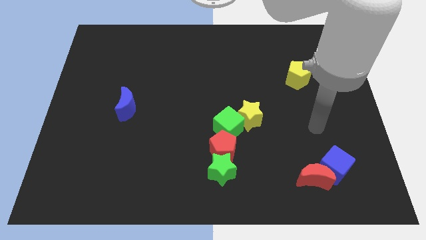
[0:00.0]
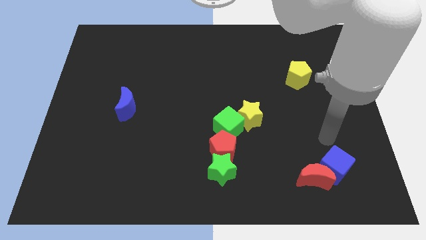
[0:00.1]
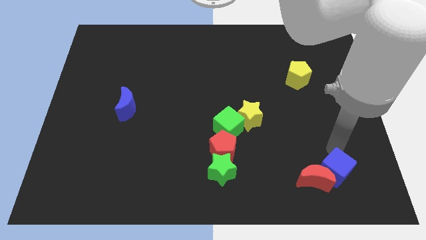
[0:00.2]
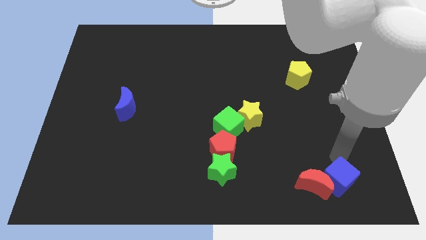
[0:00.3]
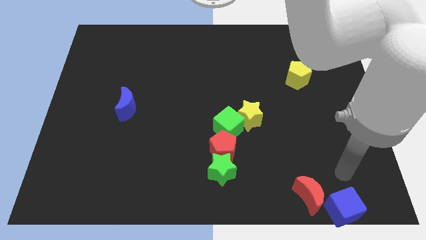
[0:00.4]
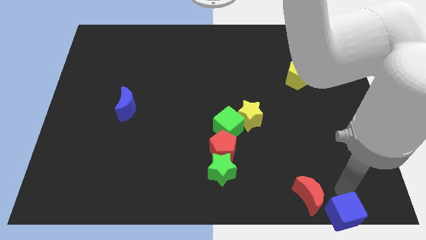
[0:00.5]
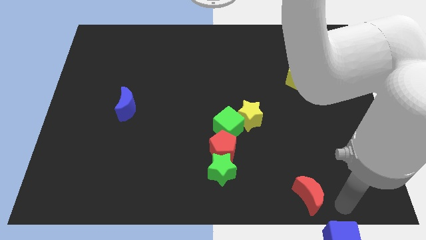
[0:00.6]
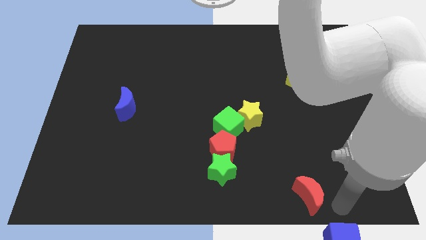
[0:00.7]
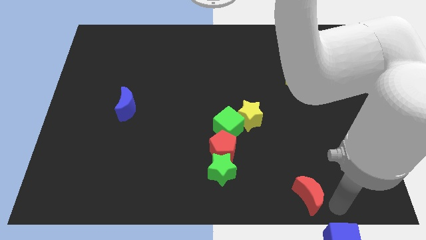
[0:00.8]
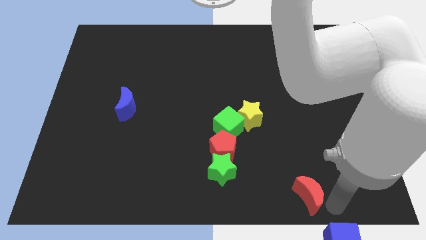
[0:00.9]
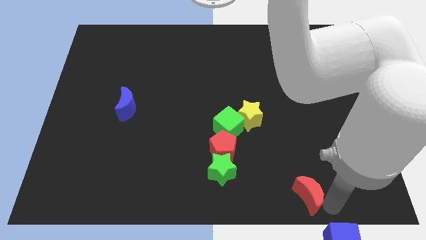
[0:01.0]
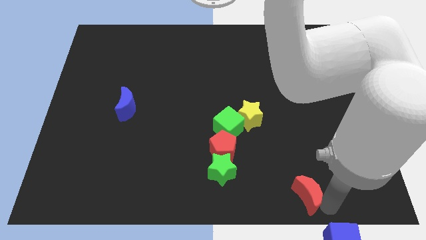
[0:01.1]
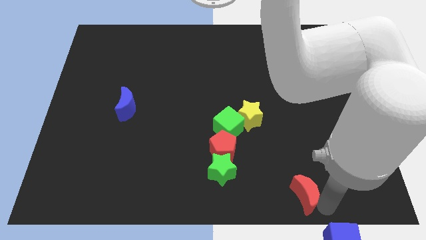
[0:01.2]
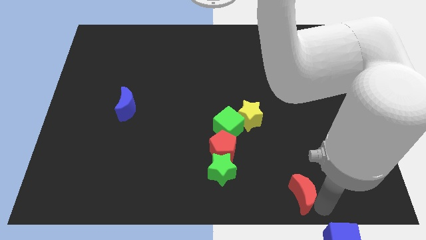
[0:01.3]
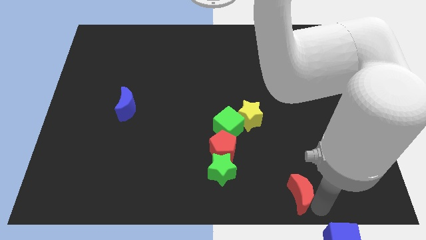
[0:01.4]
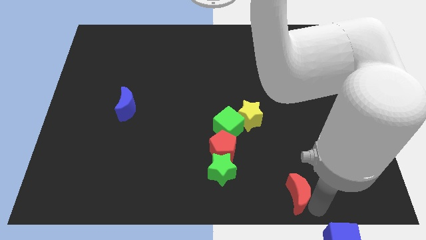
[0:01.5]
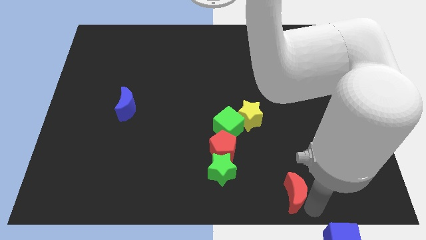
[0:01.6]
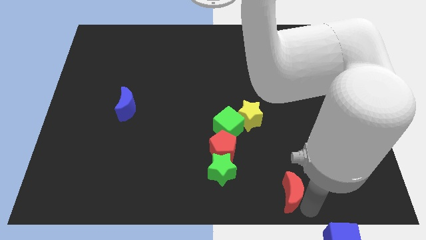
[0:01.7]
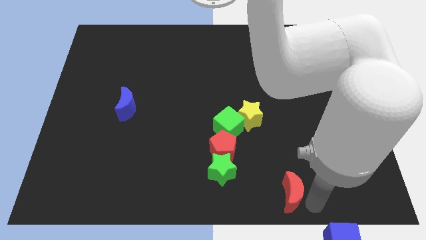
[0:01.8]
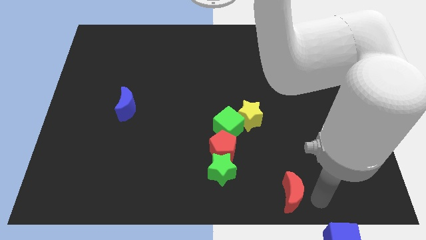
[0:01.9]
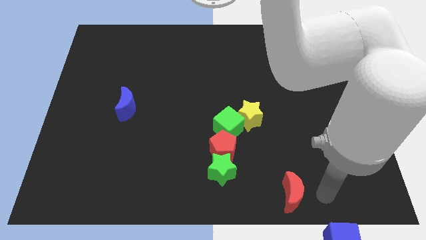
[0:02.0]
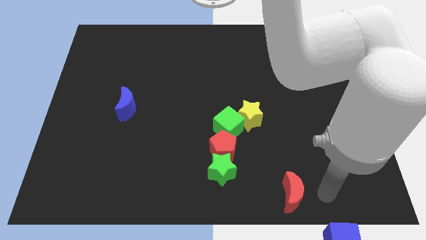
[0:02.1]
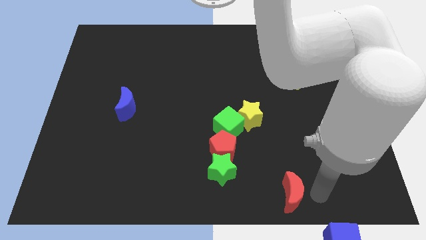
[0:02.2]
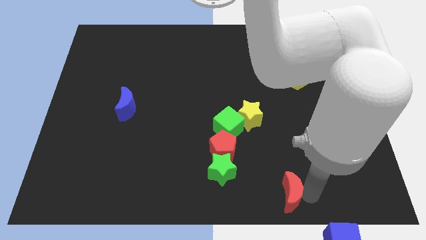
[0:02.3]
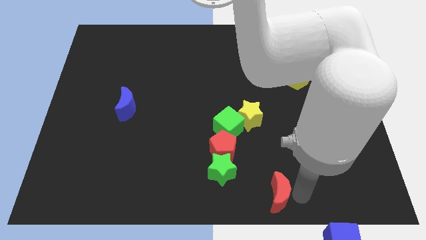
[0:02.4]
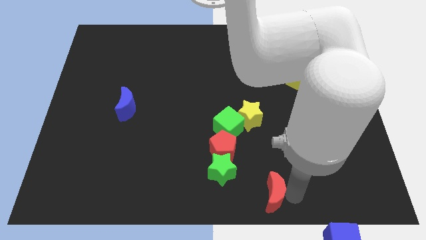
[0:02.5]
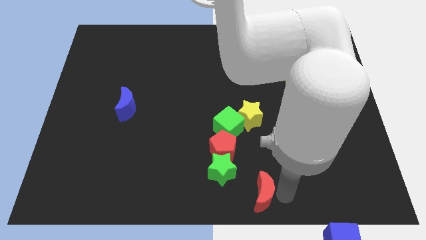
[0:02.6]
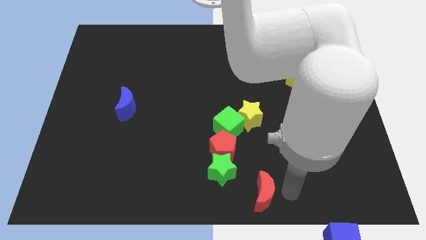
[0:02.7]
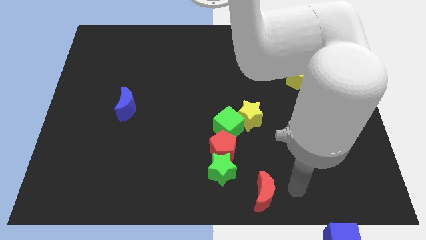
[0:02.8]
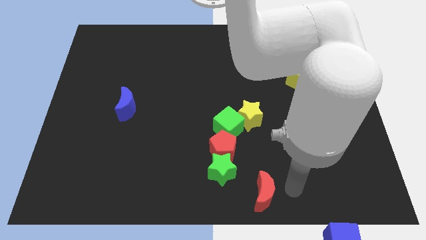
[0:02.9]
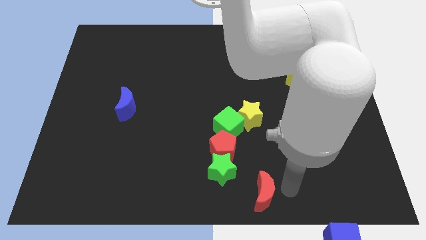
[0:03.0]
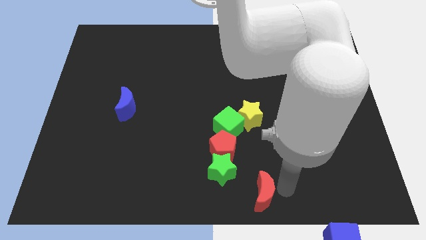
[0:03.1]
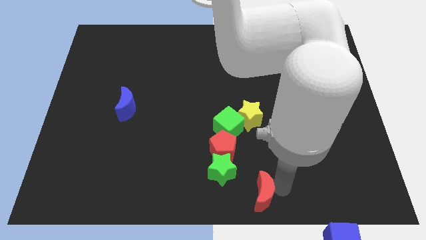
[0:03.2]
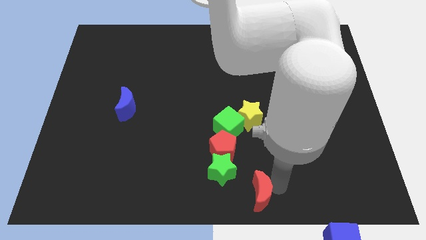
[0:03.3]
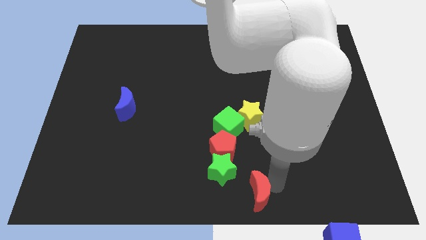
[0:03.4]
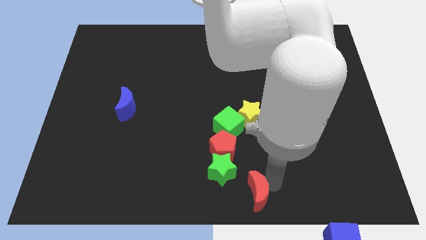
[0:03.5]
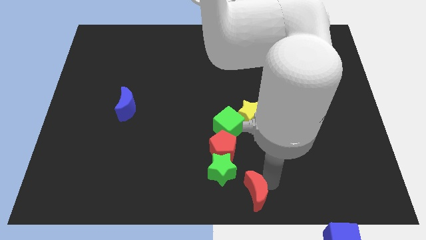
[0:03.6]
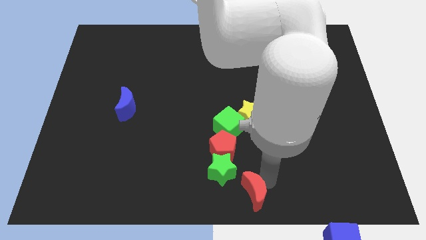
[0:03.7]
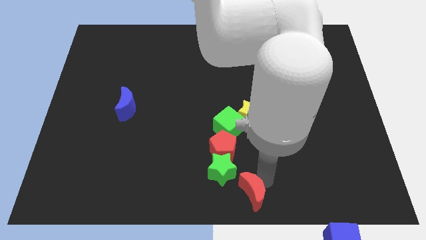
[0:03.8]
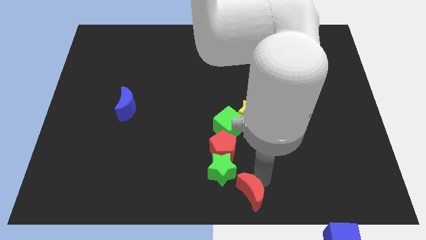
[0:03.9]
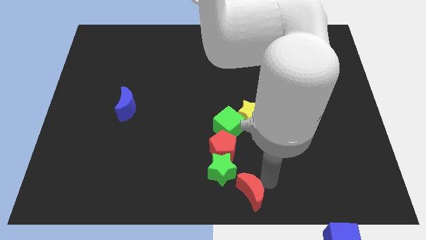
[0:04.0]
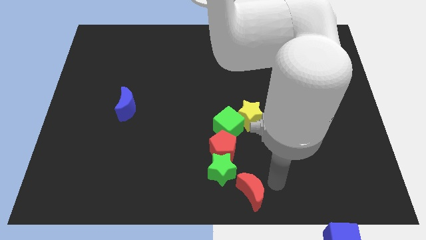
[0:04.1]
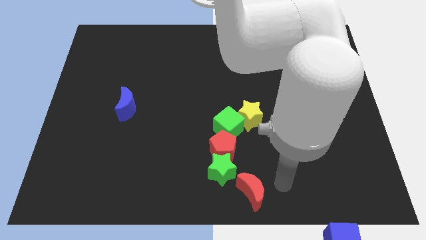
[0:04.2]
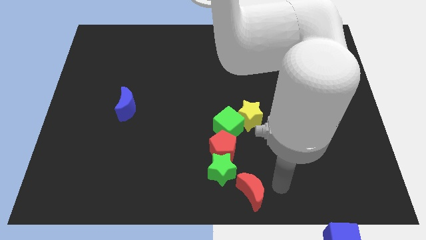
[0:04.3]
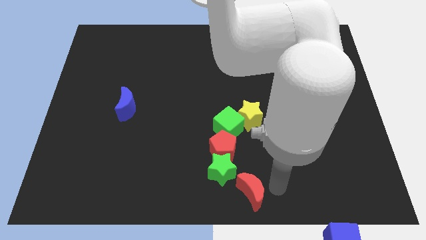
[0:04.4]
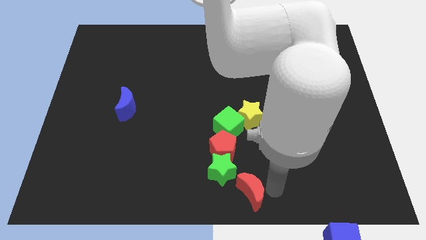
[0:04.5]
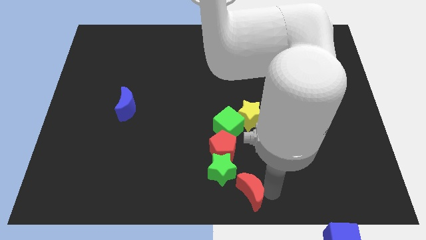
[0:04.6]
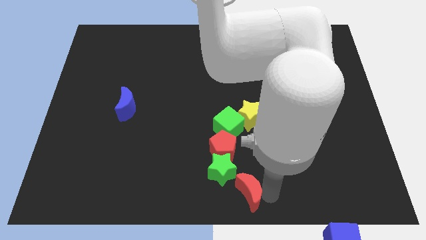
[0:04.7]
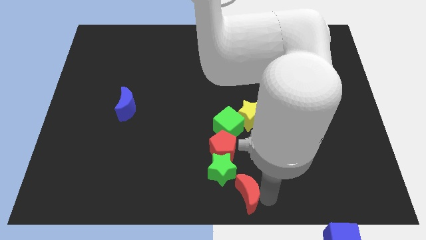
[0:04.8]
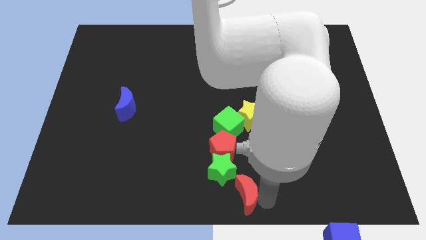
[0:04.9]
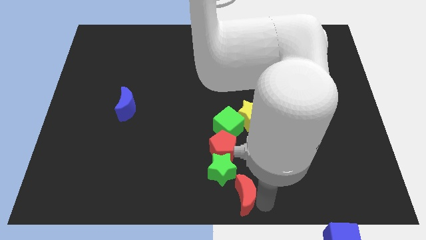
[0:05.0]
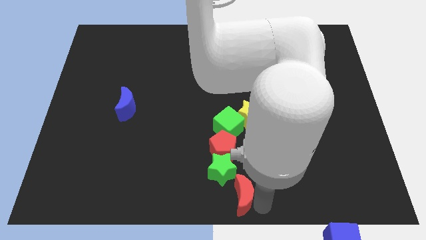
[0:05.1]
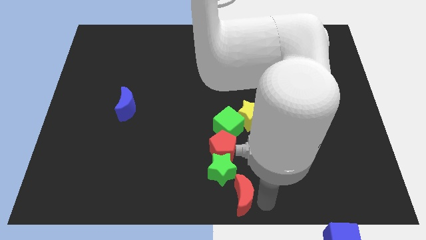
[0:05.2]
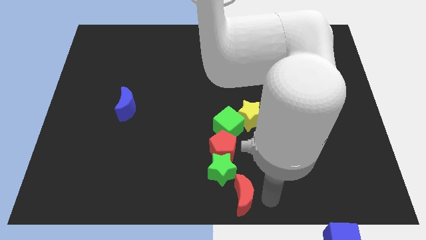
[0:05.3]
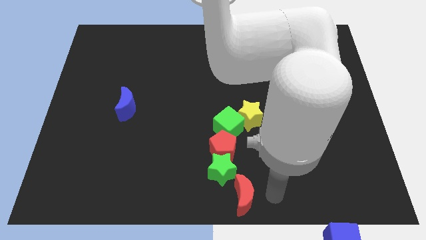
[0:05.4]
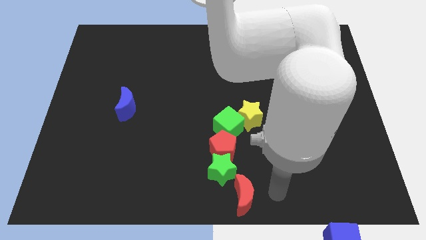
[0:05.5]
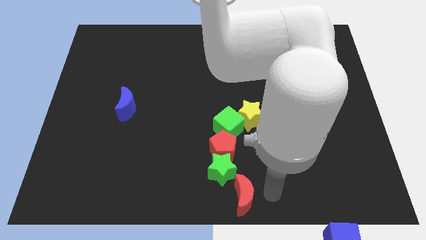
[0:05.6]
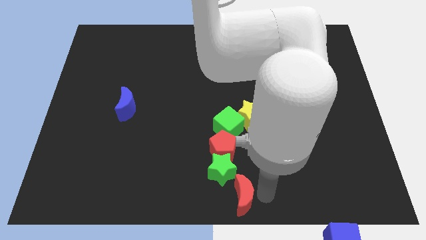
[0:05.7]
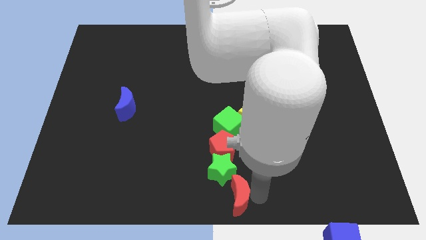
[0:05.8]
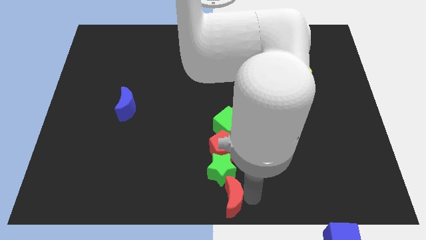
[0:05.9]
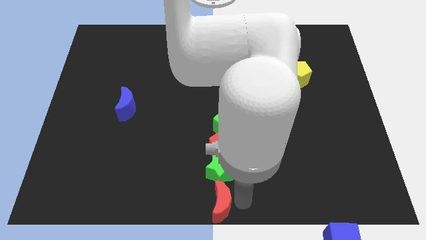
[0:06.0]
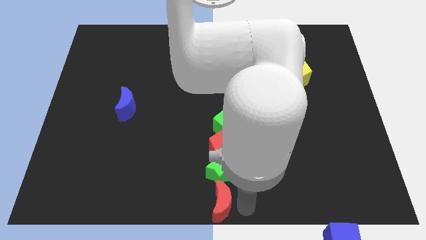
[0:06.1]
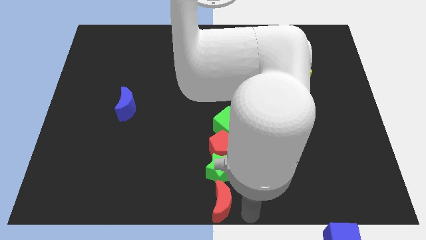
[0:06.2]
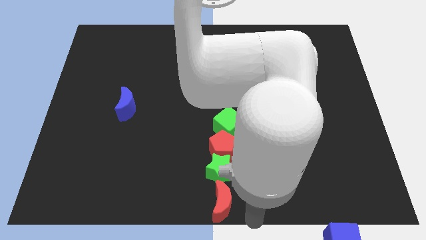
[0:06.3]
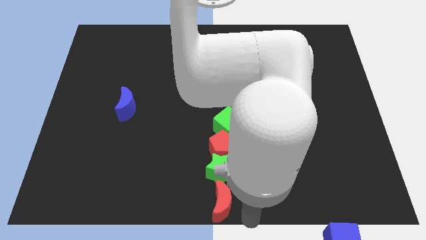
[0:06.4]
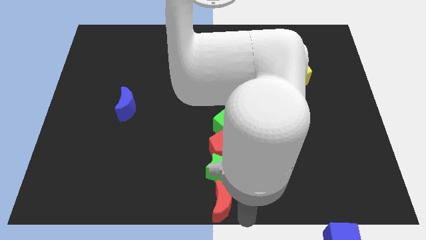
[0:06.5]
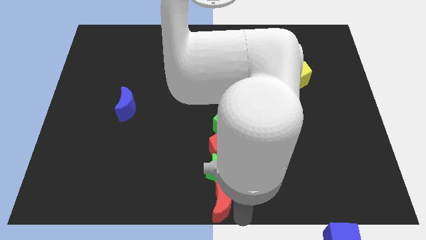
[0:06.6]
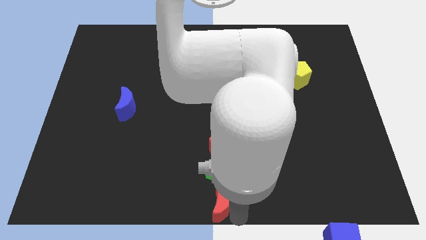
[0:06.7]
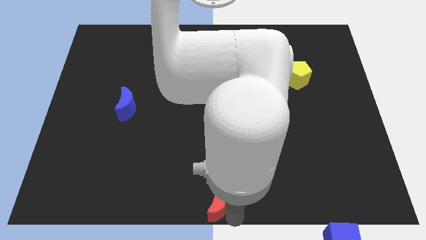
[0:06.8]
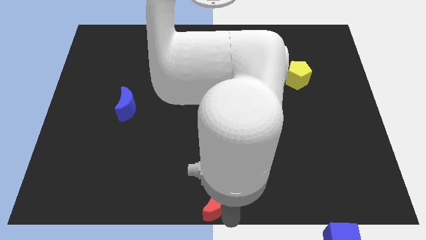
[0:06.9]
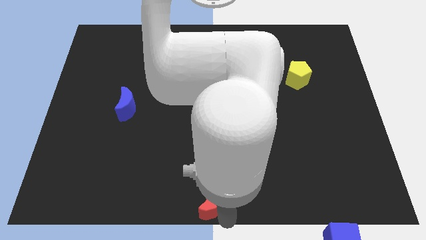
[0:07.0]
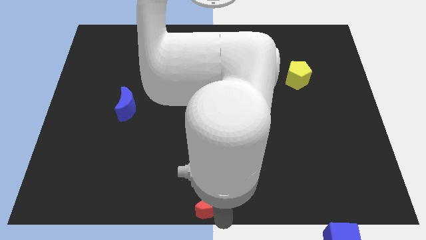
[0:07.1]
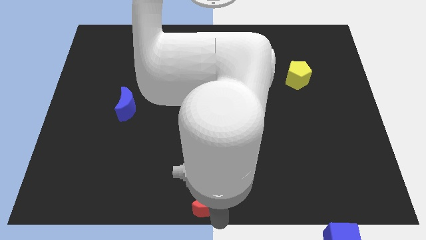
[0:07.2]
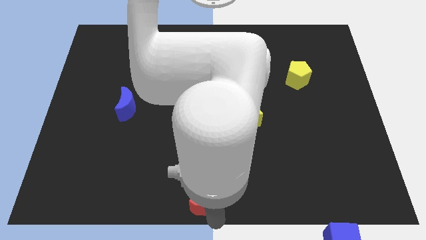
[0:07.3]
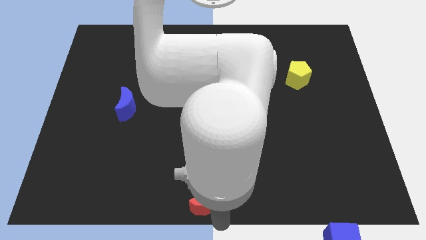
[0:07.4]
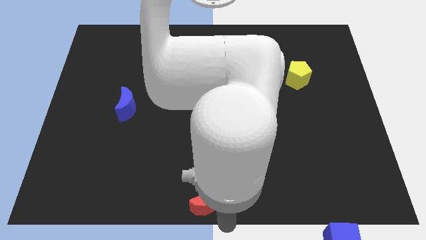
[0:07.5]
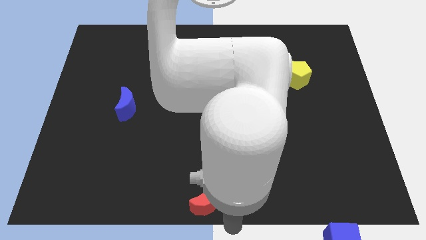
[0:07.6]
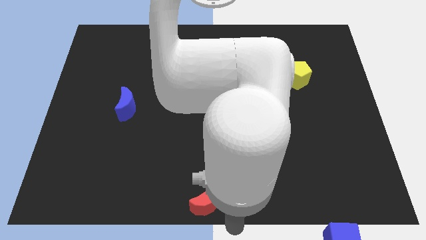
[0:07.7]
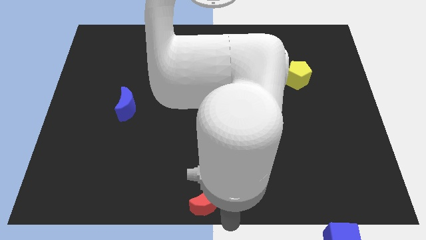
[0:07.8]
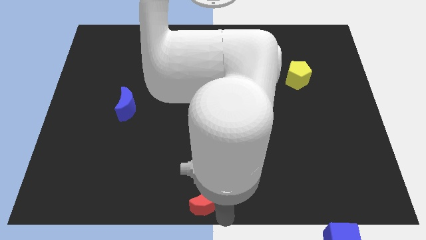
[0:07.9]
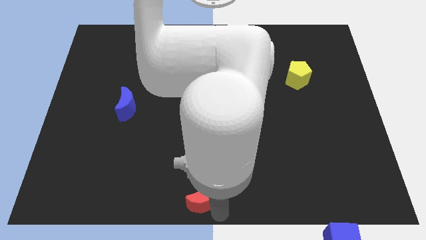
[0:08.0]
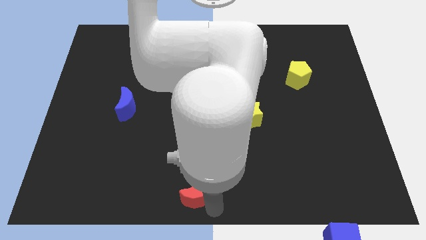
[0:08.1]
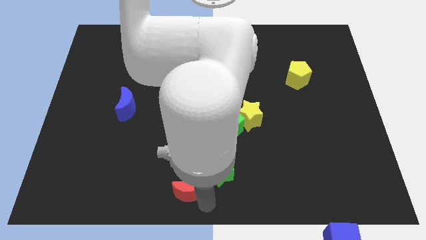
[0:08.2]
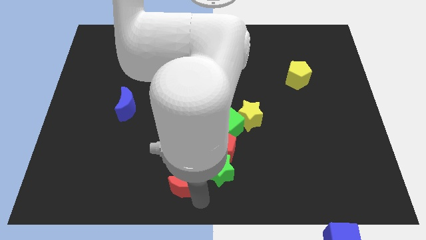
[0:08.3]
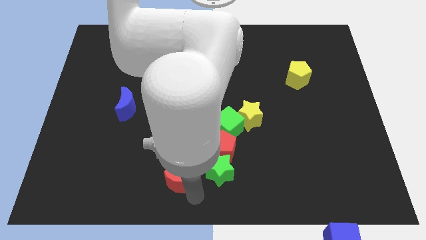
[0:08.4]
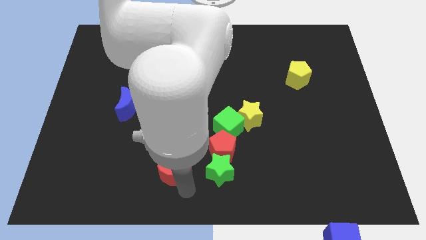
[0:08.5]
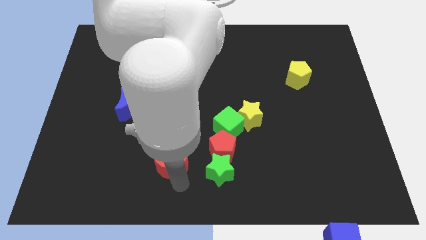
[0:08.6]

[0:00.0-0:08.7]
push the red moon just left of the red pentagon
